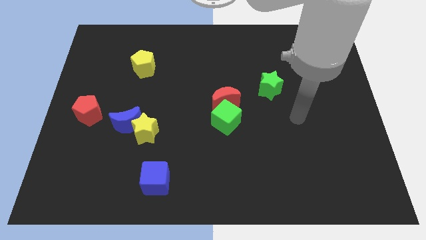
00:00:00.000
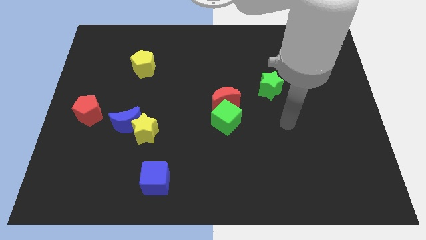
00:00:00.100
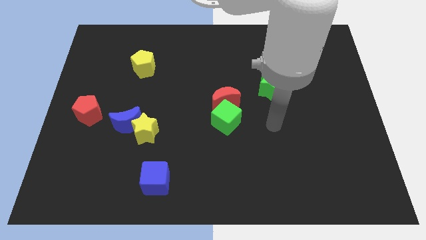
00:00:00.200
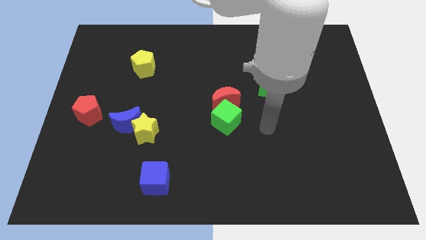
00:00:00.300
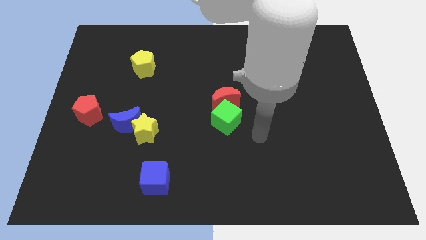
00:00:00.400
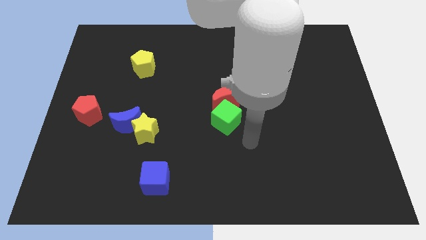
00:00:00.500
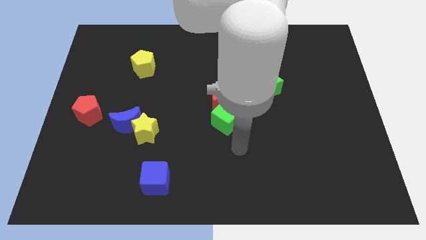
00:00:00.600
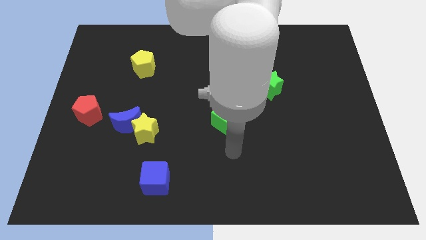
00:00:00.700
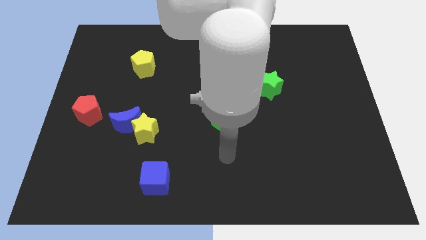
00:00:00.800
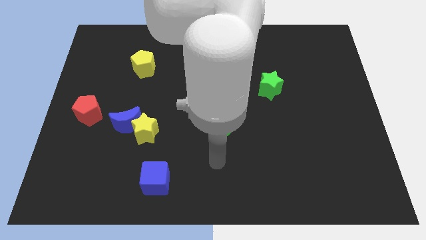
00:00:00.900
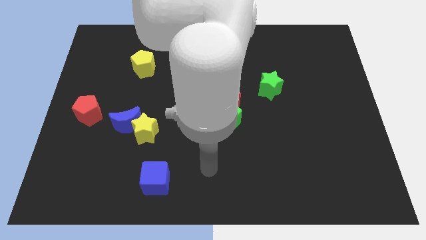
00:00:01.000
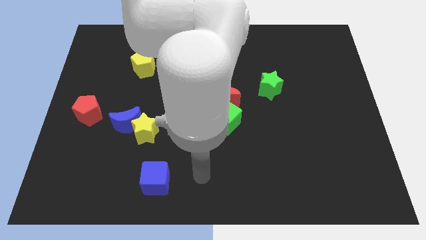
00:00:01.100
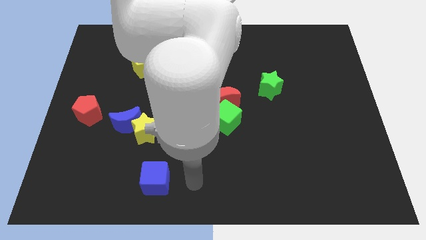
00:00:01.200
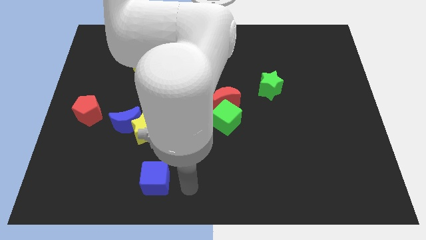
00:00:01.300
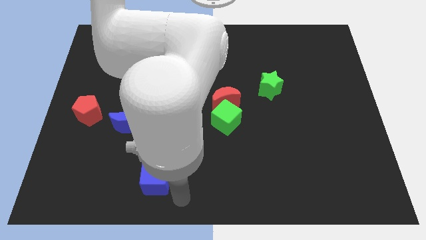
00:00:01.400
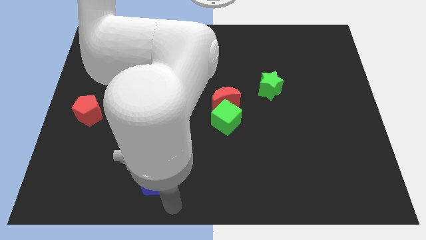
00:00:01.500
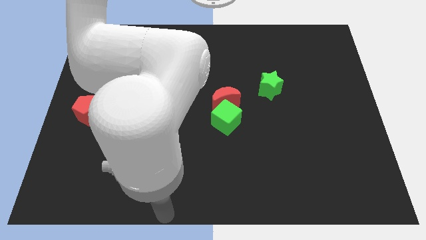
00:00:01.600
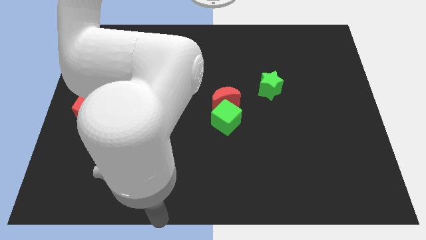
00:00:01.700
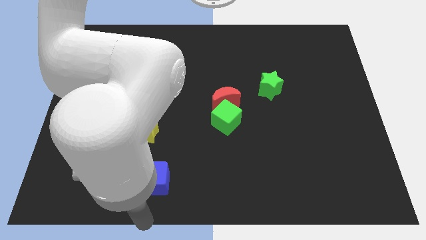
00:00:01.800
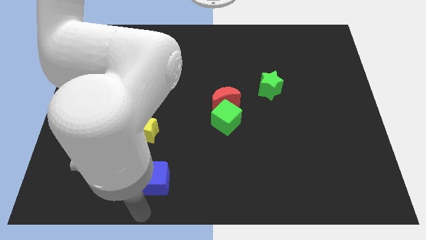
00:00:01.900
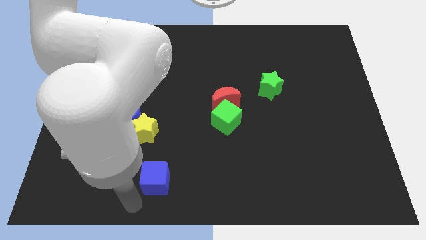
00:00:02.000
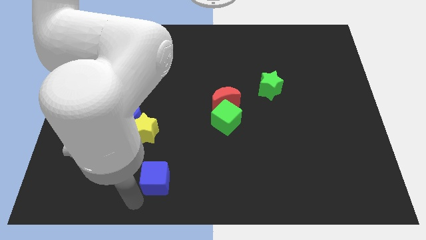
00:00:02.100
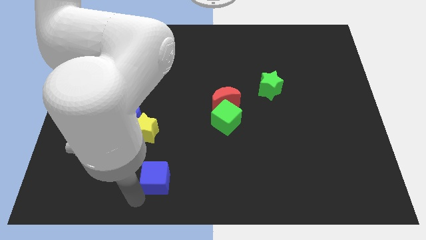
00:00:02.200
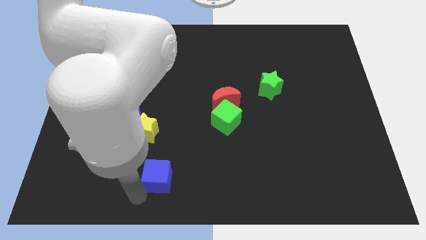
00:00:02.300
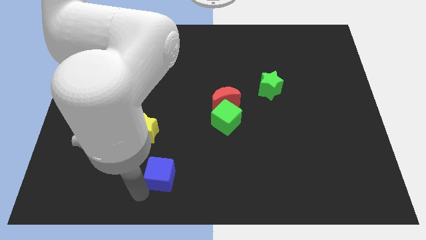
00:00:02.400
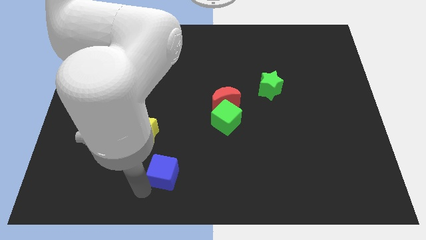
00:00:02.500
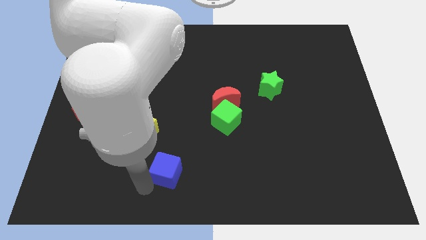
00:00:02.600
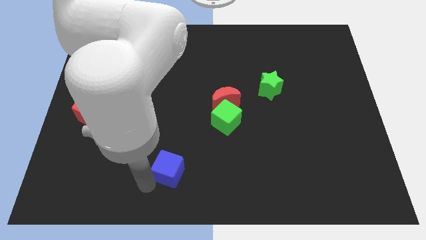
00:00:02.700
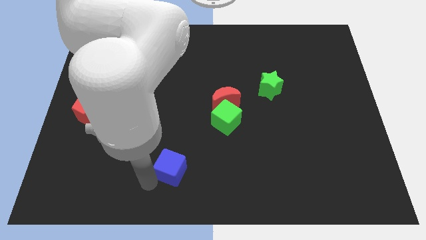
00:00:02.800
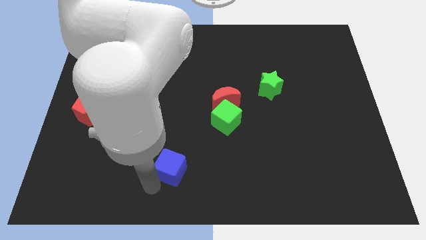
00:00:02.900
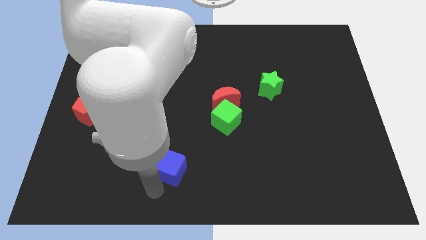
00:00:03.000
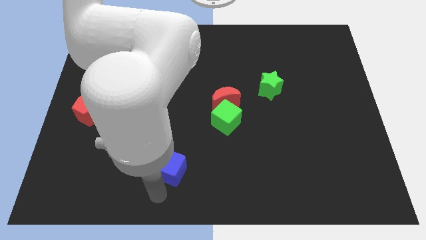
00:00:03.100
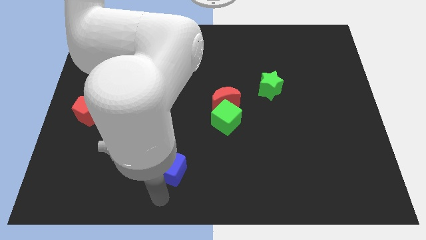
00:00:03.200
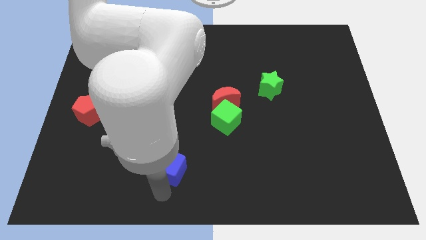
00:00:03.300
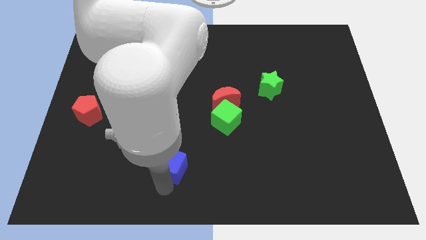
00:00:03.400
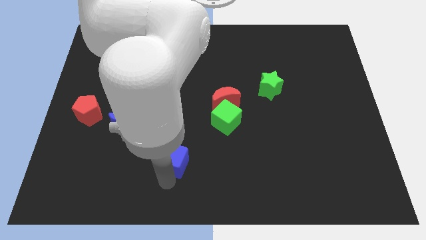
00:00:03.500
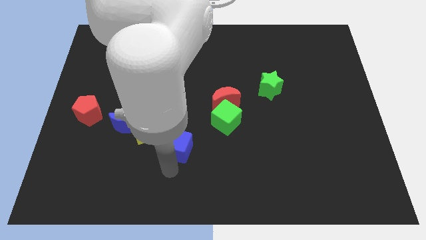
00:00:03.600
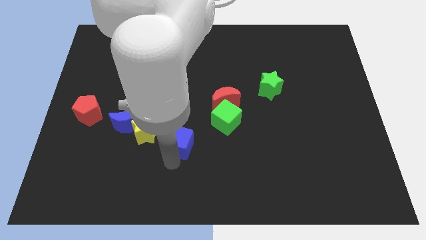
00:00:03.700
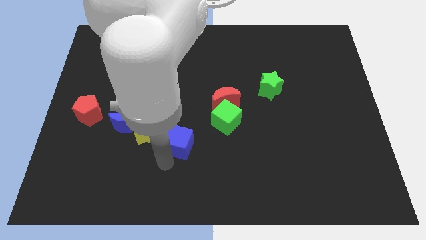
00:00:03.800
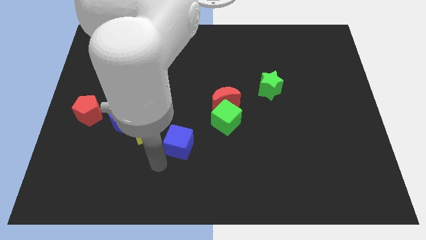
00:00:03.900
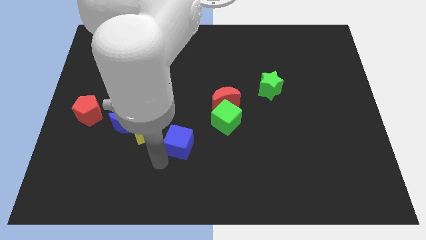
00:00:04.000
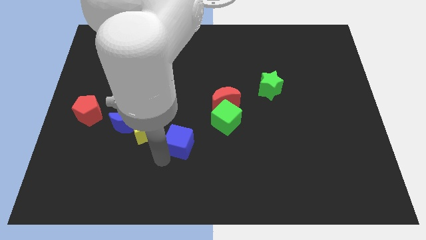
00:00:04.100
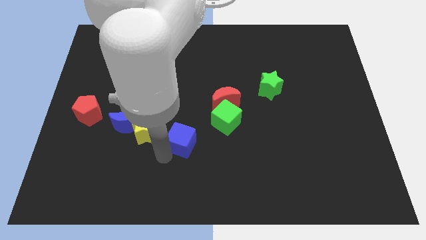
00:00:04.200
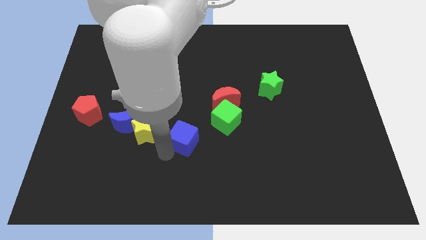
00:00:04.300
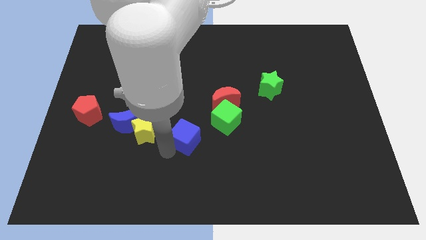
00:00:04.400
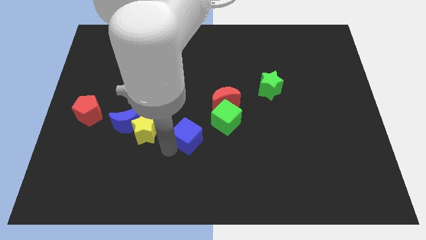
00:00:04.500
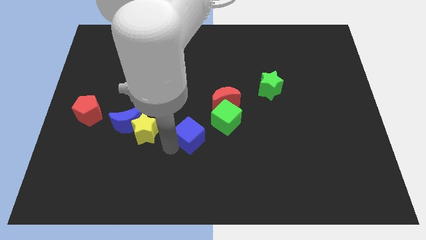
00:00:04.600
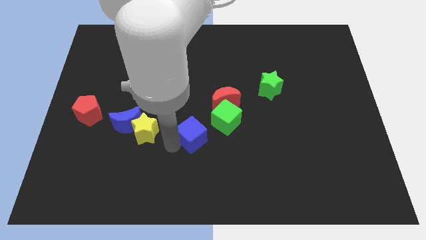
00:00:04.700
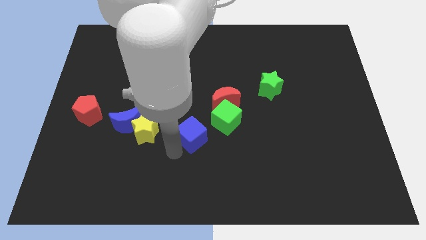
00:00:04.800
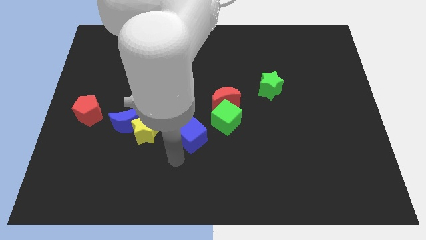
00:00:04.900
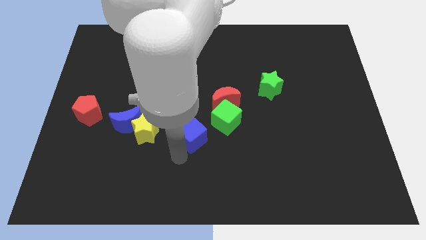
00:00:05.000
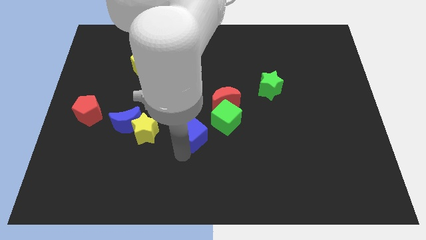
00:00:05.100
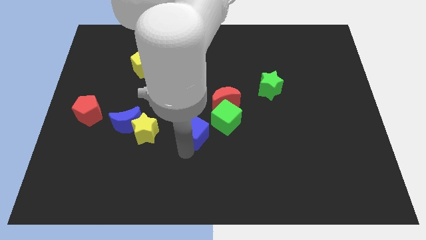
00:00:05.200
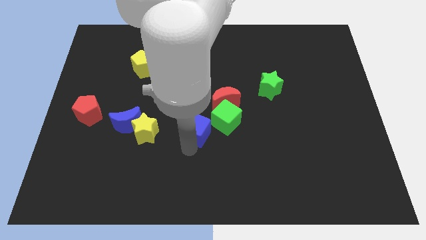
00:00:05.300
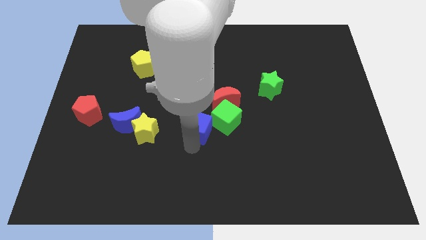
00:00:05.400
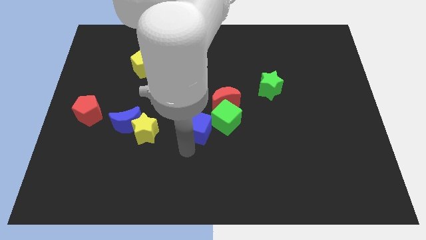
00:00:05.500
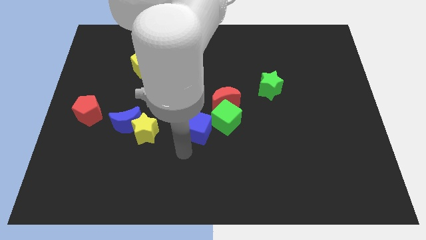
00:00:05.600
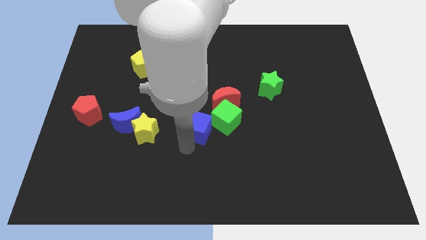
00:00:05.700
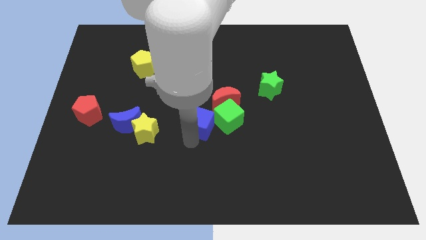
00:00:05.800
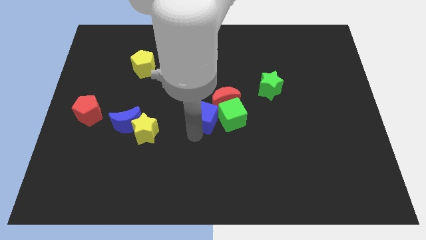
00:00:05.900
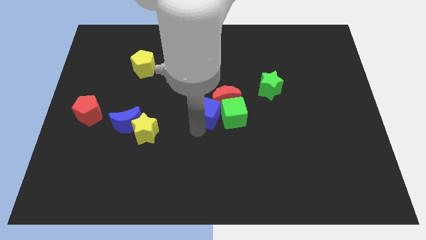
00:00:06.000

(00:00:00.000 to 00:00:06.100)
slide the blue cube close to the red moon
